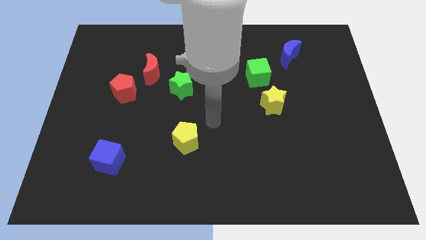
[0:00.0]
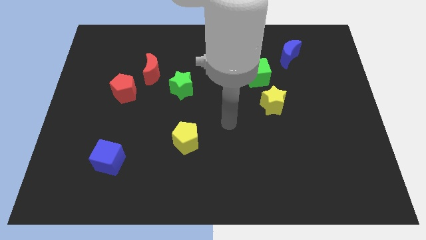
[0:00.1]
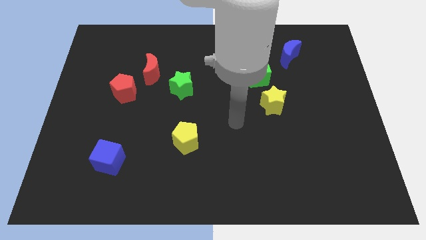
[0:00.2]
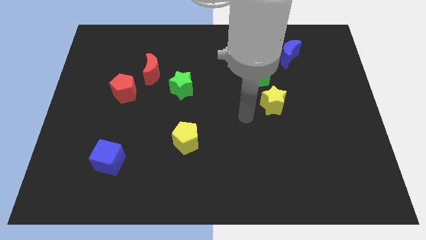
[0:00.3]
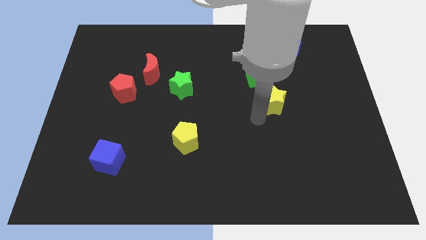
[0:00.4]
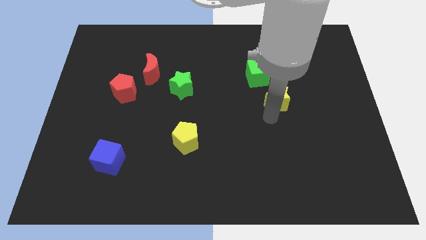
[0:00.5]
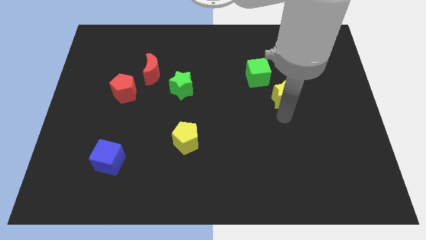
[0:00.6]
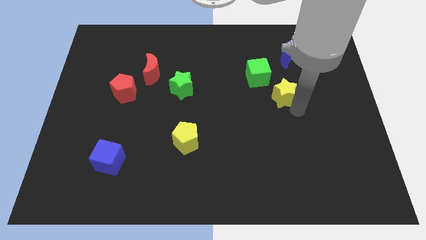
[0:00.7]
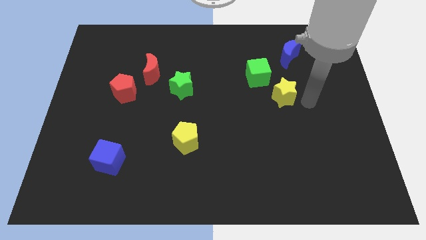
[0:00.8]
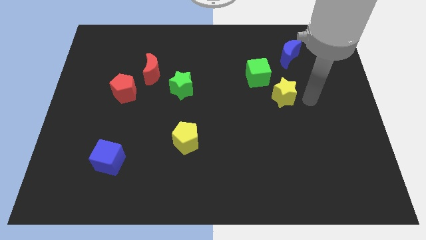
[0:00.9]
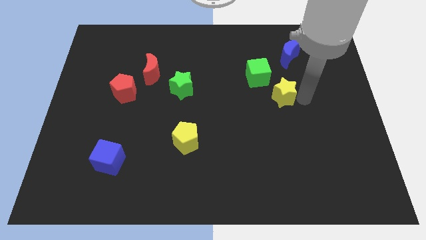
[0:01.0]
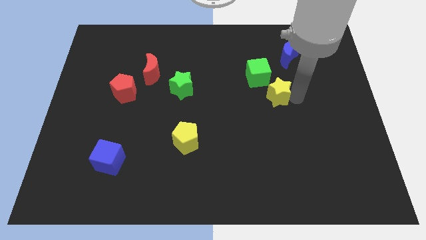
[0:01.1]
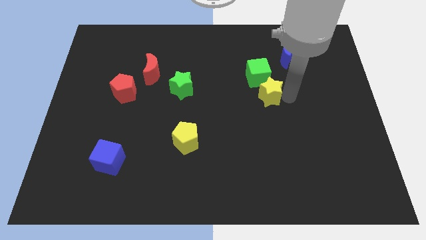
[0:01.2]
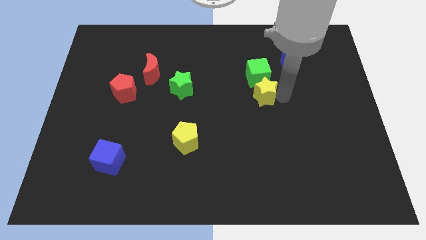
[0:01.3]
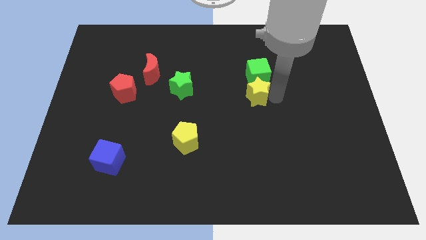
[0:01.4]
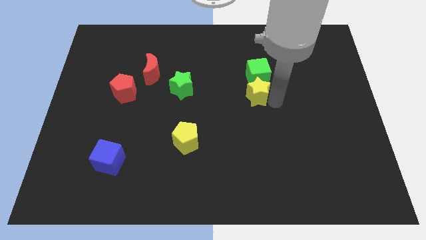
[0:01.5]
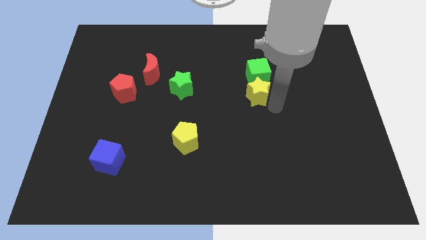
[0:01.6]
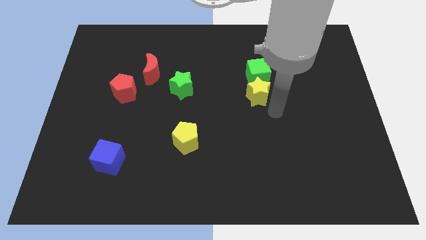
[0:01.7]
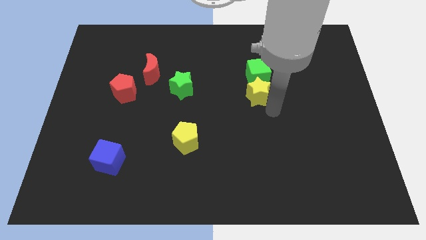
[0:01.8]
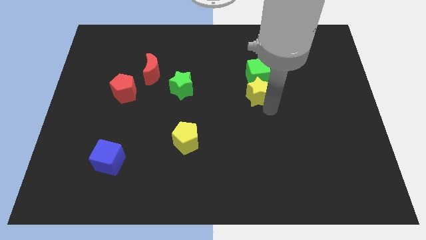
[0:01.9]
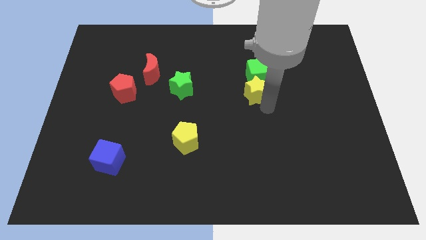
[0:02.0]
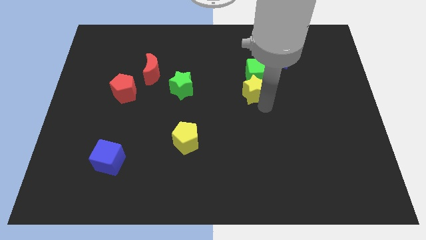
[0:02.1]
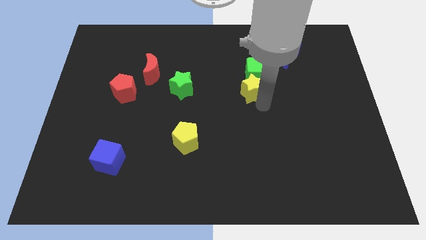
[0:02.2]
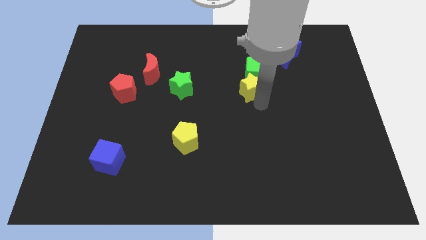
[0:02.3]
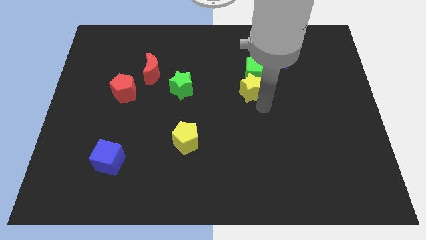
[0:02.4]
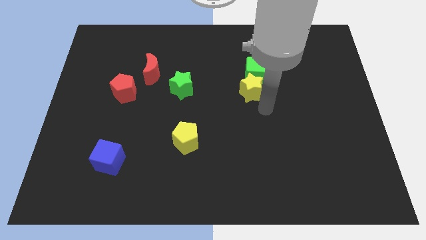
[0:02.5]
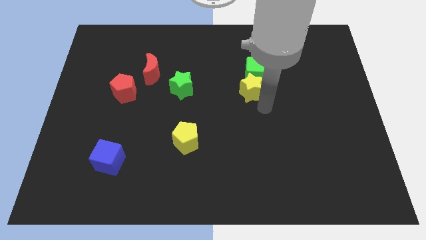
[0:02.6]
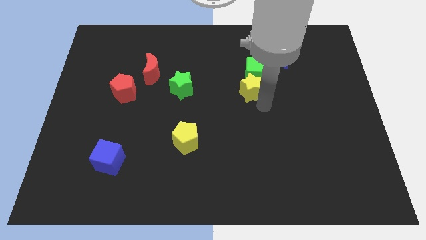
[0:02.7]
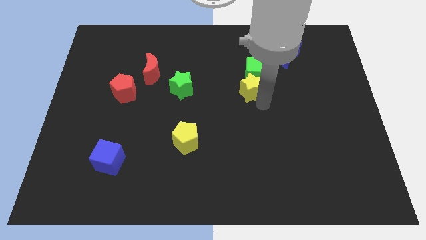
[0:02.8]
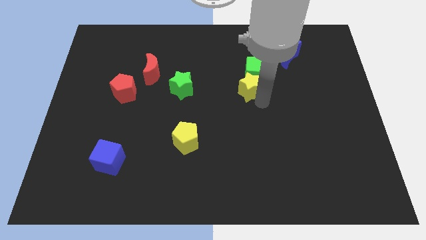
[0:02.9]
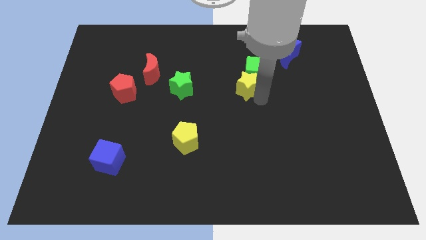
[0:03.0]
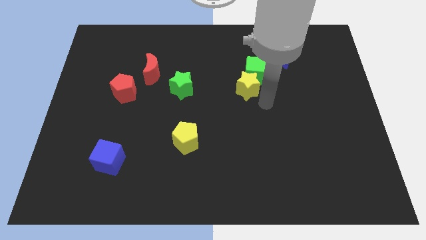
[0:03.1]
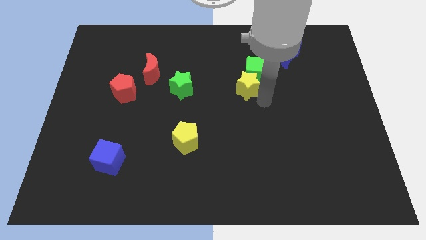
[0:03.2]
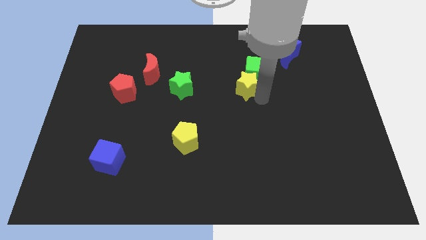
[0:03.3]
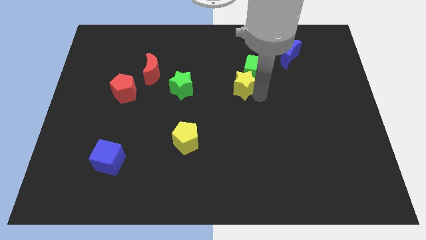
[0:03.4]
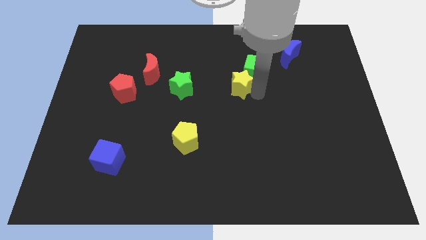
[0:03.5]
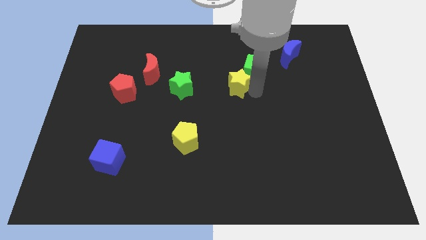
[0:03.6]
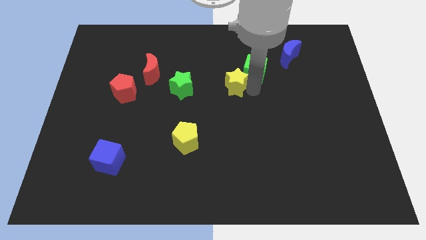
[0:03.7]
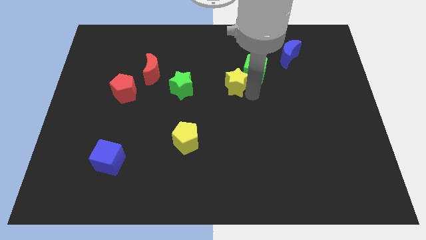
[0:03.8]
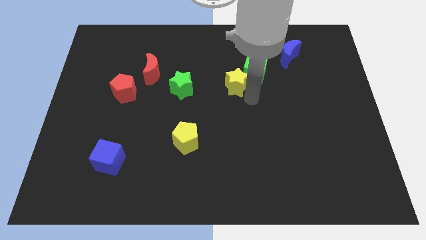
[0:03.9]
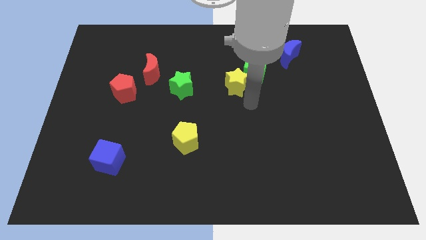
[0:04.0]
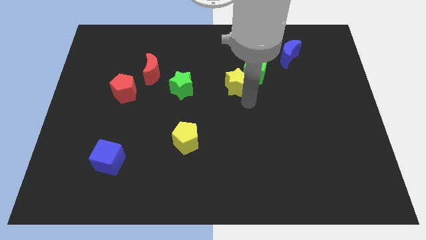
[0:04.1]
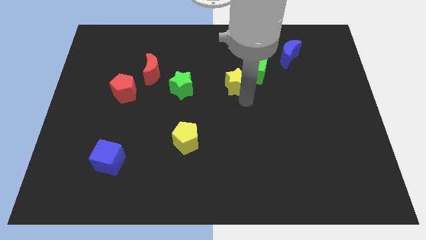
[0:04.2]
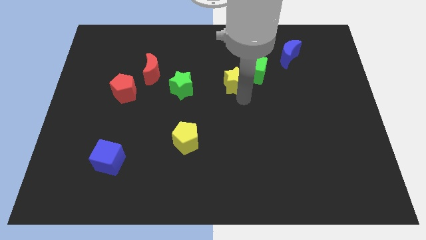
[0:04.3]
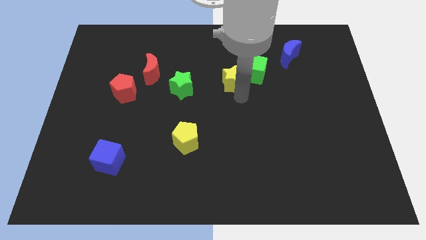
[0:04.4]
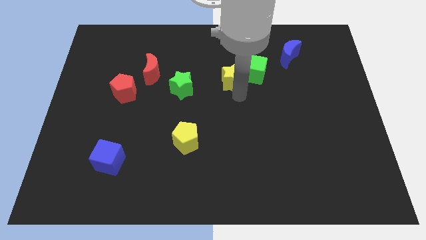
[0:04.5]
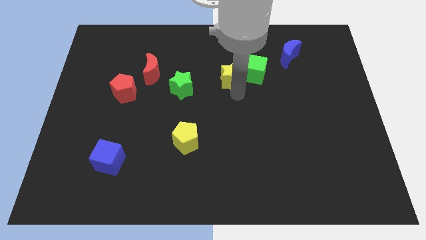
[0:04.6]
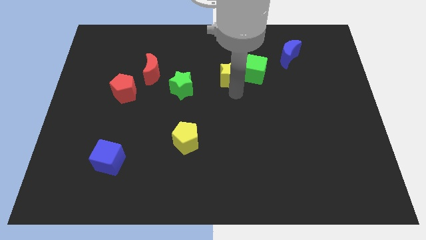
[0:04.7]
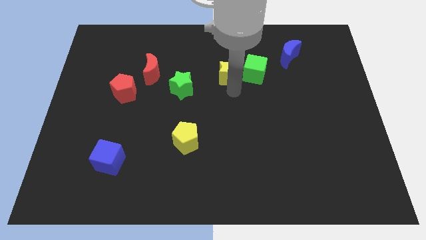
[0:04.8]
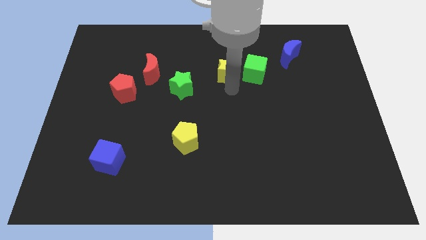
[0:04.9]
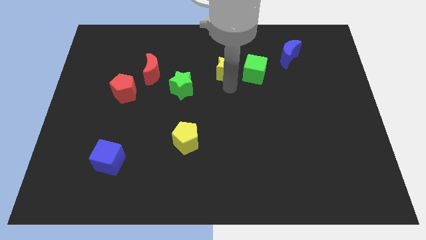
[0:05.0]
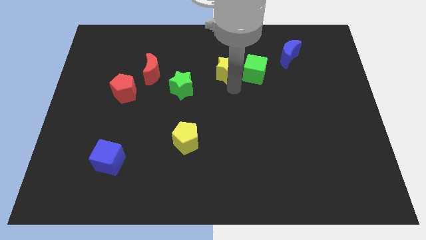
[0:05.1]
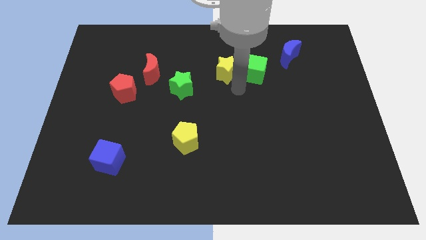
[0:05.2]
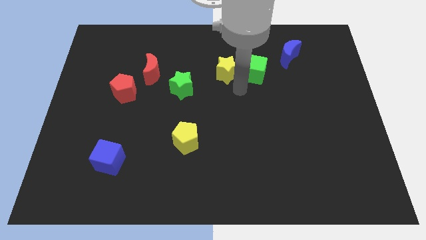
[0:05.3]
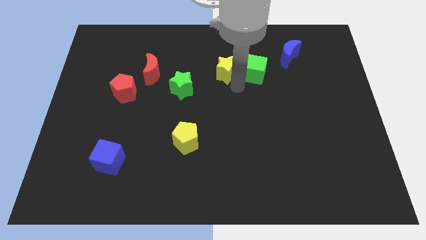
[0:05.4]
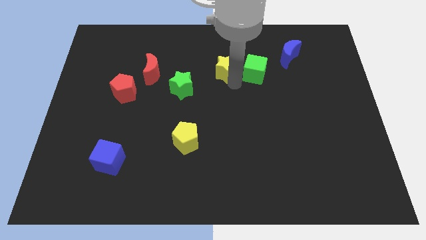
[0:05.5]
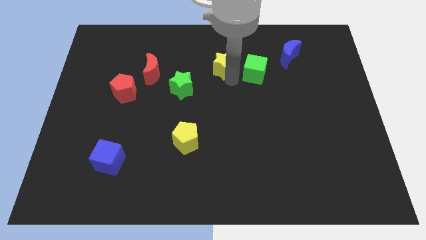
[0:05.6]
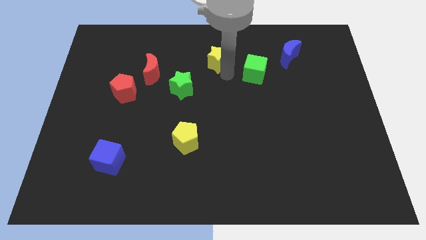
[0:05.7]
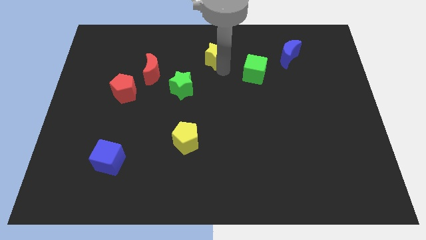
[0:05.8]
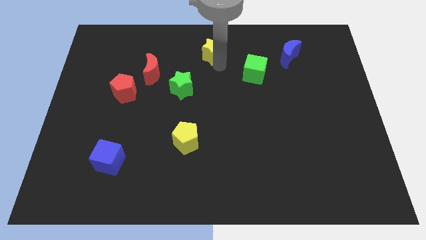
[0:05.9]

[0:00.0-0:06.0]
put the yellow star to the towards your base
